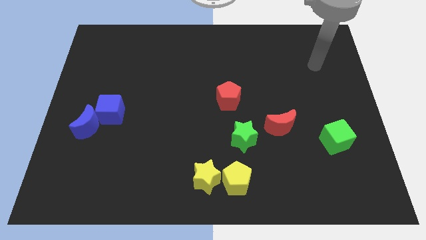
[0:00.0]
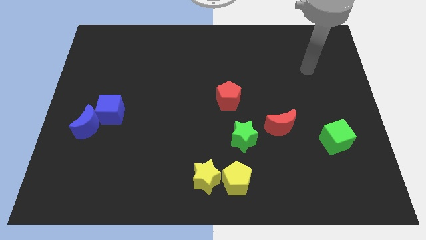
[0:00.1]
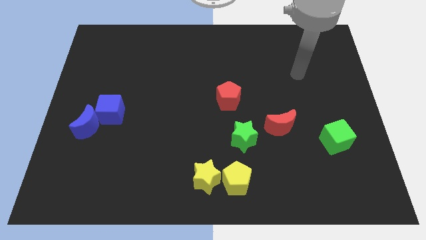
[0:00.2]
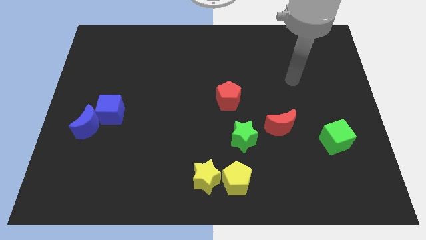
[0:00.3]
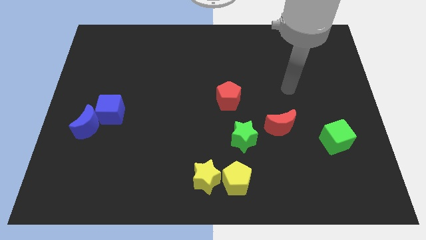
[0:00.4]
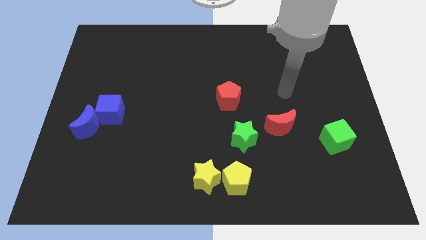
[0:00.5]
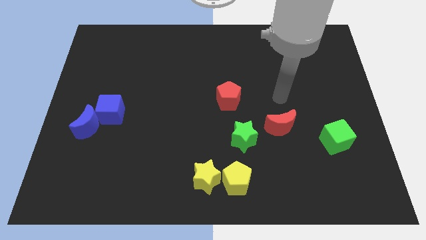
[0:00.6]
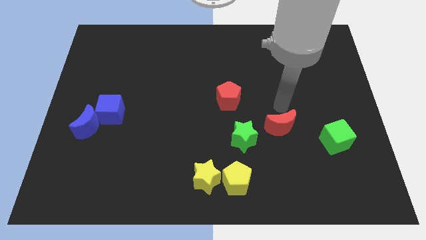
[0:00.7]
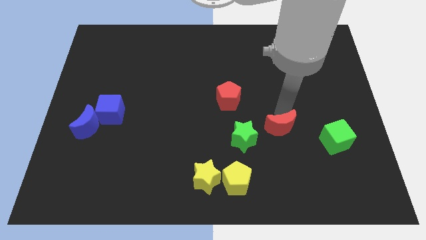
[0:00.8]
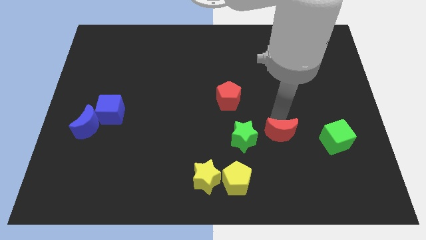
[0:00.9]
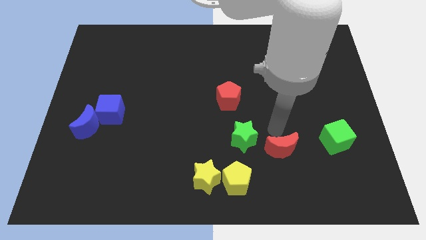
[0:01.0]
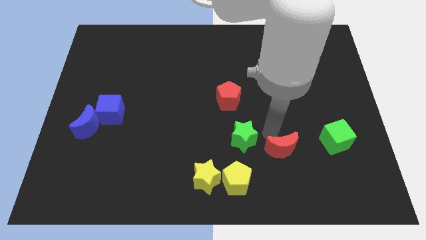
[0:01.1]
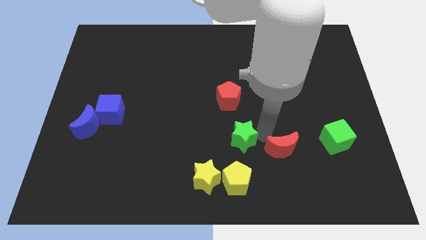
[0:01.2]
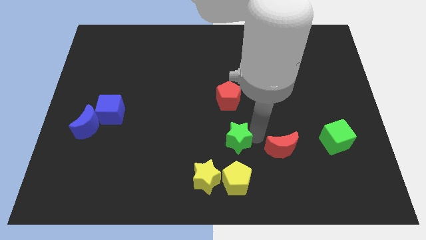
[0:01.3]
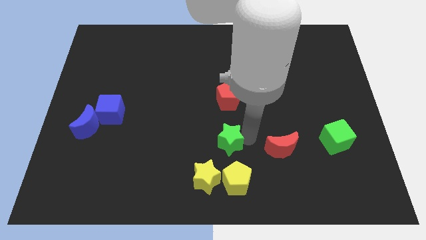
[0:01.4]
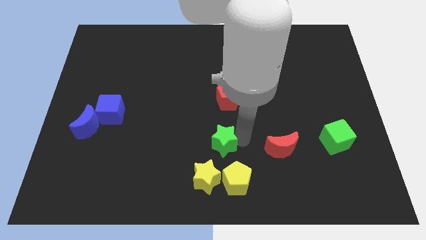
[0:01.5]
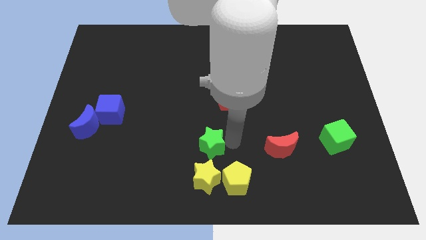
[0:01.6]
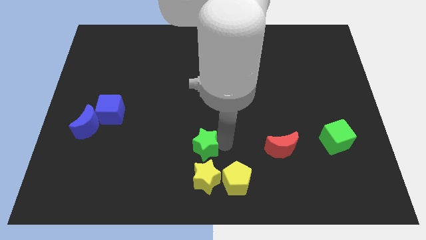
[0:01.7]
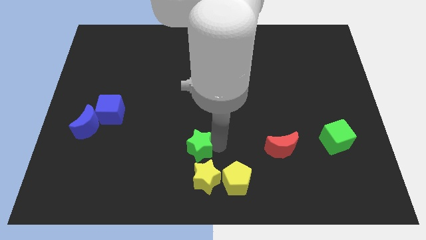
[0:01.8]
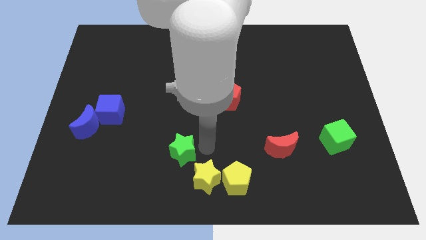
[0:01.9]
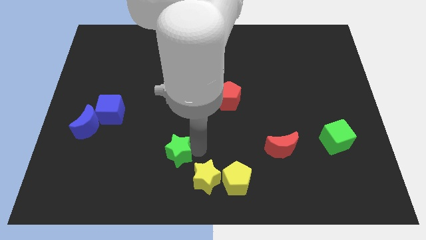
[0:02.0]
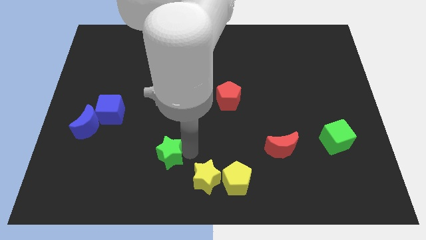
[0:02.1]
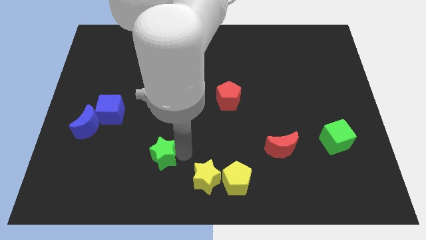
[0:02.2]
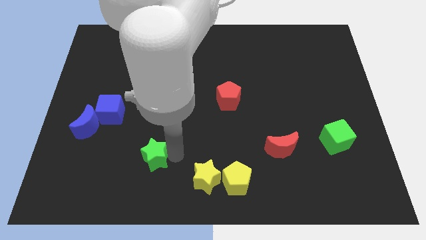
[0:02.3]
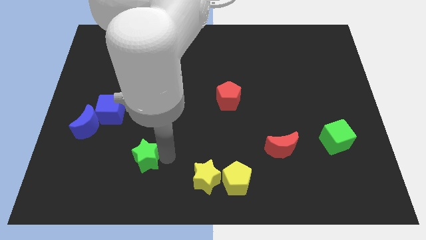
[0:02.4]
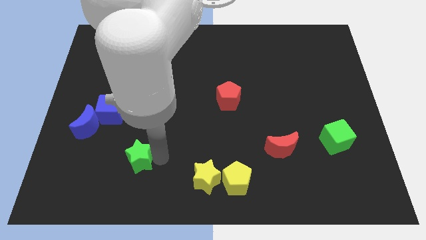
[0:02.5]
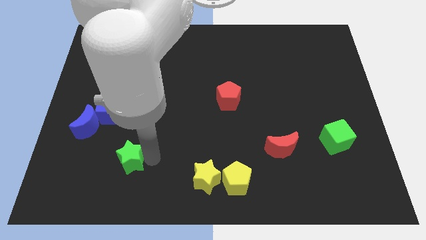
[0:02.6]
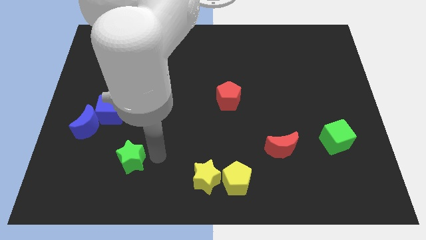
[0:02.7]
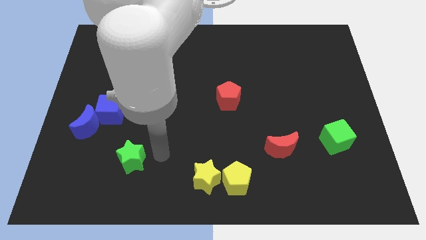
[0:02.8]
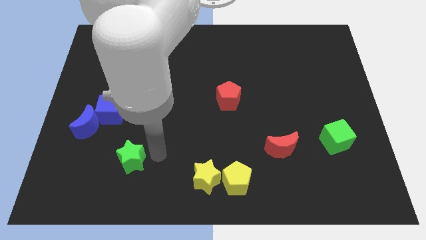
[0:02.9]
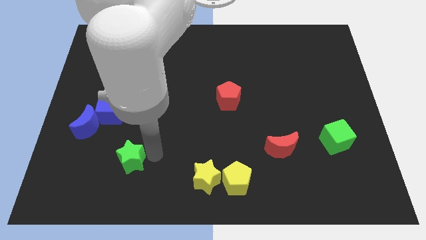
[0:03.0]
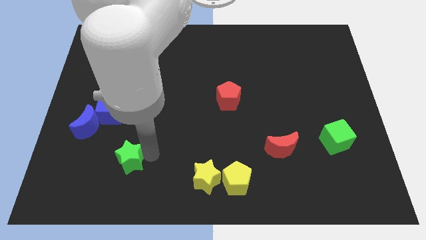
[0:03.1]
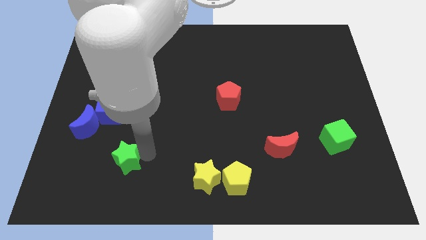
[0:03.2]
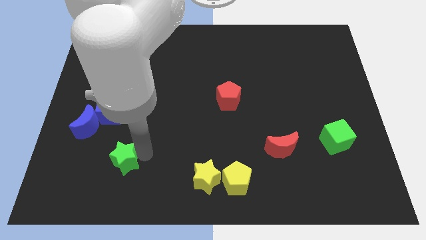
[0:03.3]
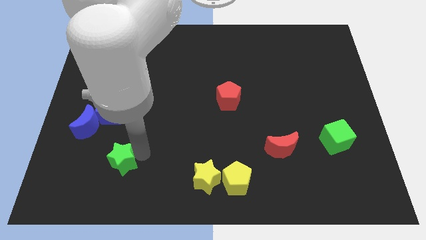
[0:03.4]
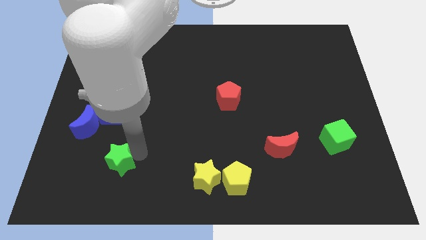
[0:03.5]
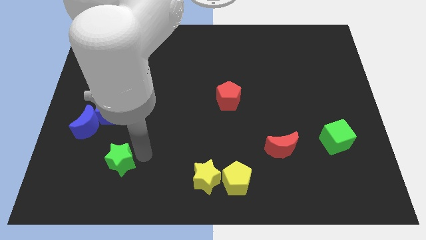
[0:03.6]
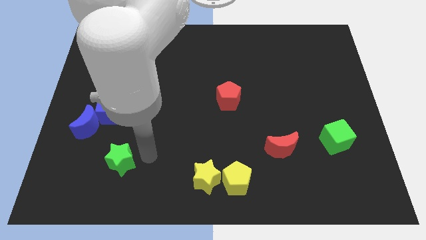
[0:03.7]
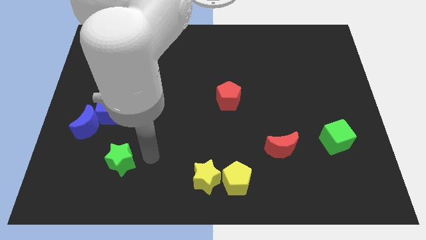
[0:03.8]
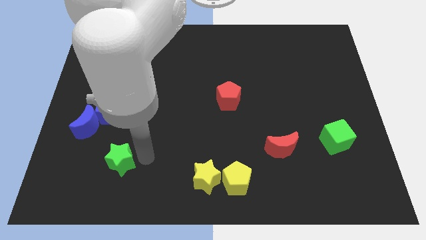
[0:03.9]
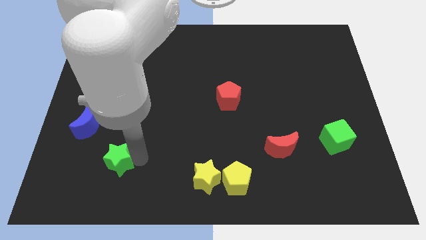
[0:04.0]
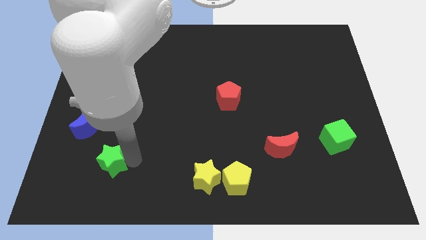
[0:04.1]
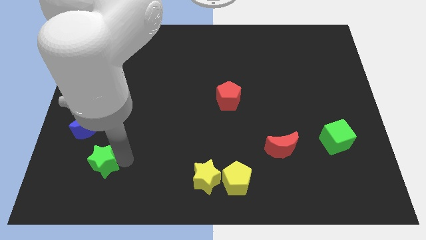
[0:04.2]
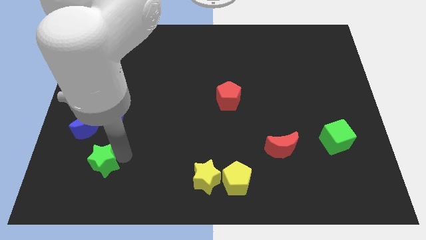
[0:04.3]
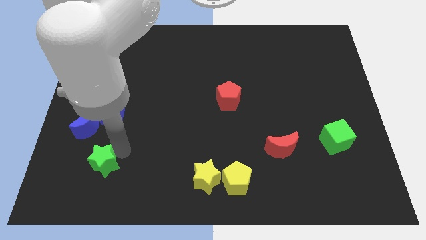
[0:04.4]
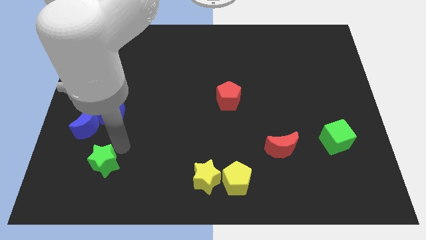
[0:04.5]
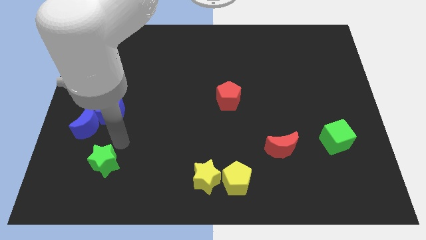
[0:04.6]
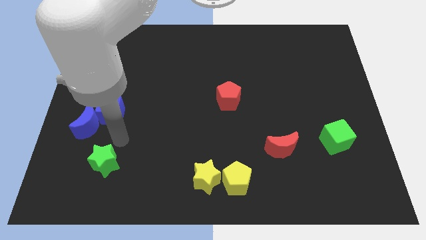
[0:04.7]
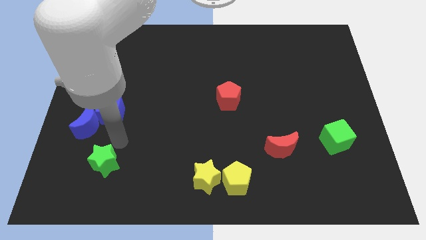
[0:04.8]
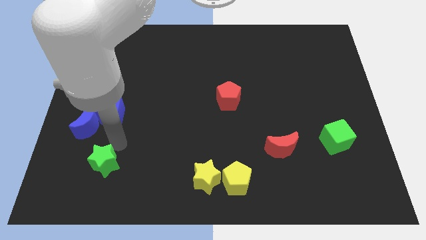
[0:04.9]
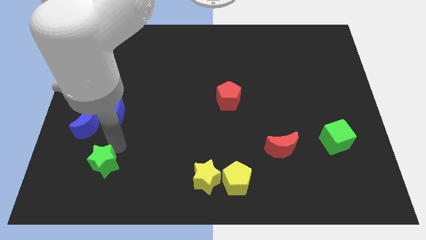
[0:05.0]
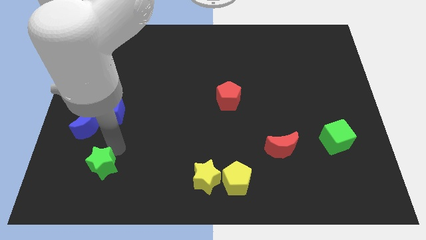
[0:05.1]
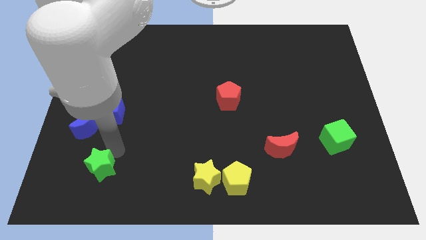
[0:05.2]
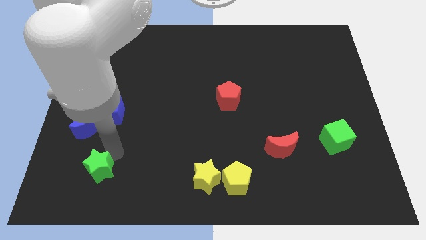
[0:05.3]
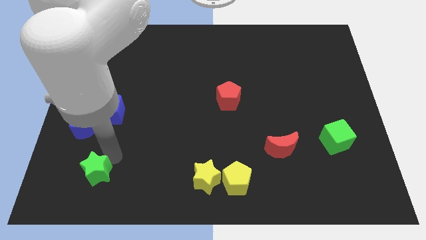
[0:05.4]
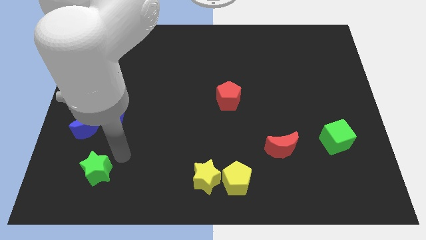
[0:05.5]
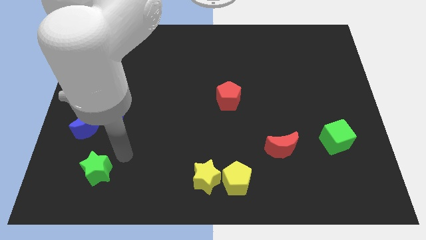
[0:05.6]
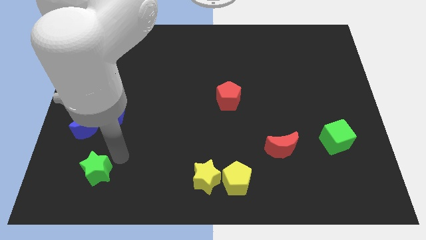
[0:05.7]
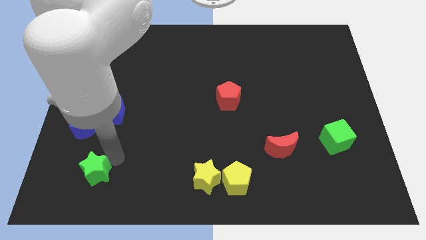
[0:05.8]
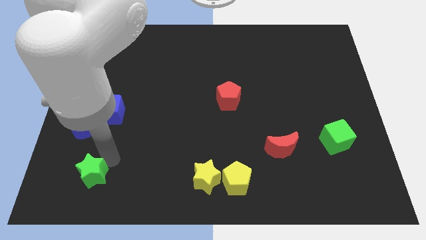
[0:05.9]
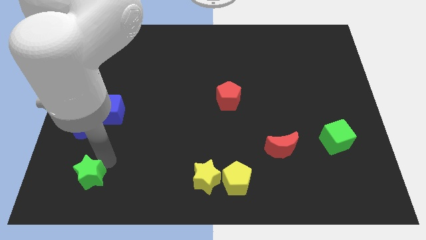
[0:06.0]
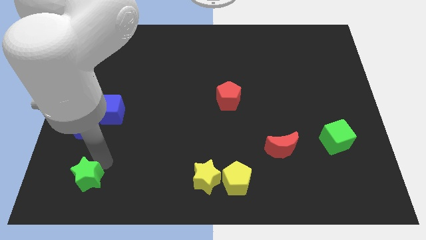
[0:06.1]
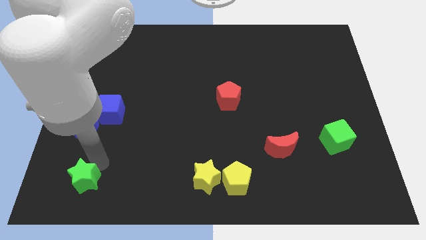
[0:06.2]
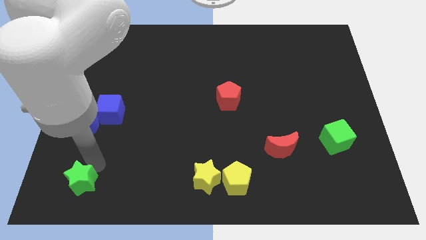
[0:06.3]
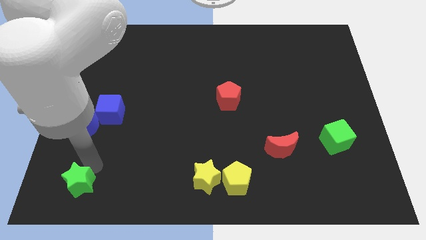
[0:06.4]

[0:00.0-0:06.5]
put the green star to the bottom left
